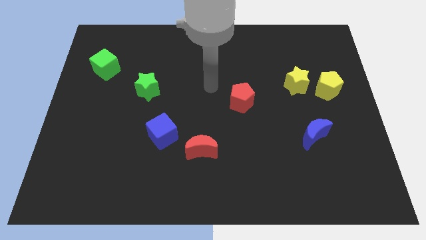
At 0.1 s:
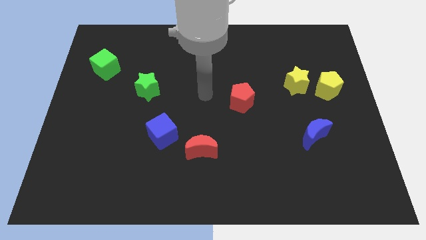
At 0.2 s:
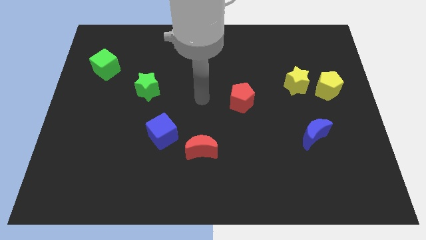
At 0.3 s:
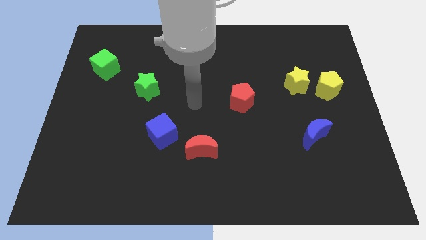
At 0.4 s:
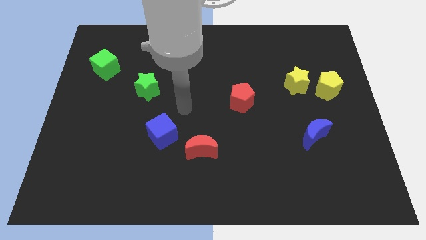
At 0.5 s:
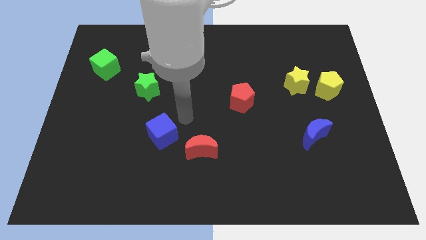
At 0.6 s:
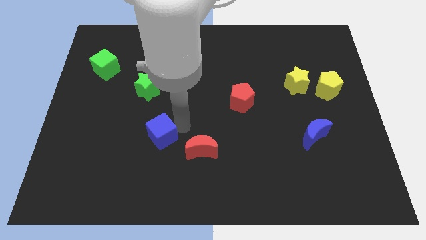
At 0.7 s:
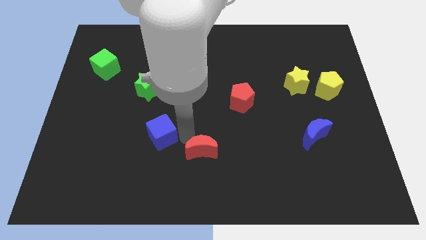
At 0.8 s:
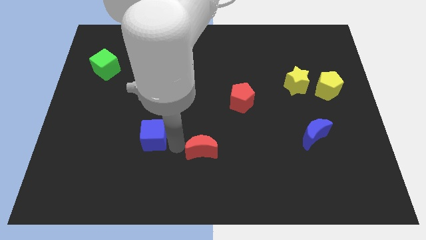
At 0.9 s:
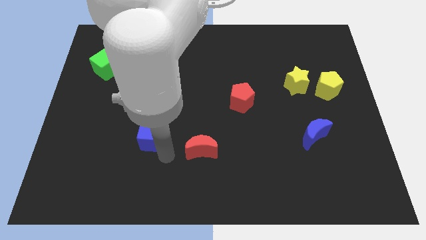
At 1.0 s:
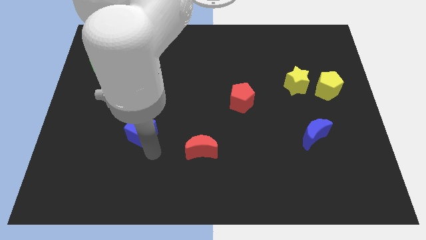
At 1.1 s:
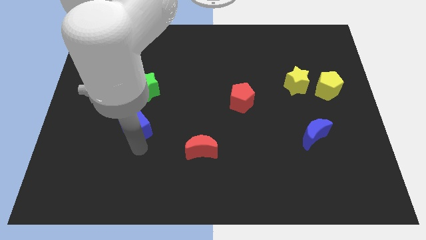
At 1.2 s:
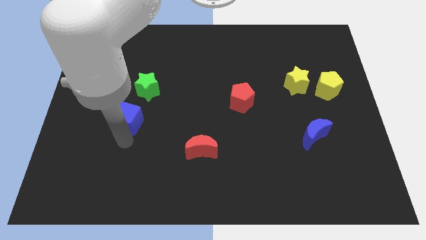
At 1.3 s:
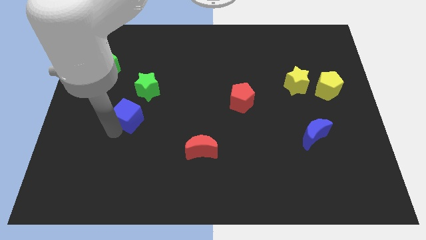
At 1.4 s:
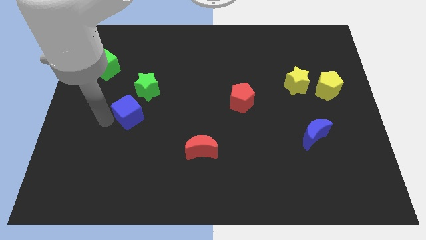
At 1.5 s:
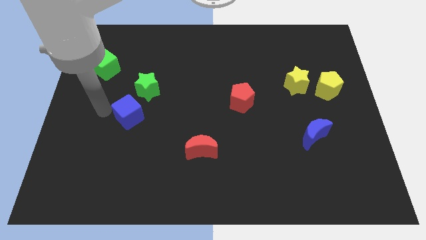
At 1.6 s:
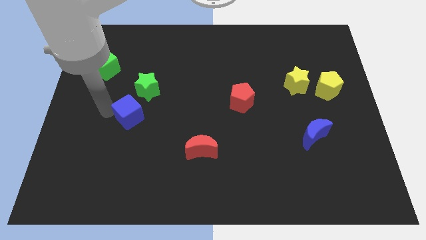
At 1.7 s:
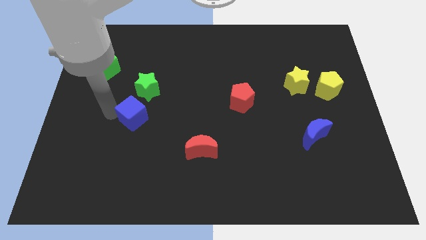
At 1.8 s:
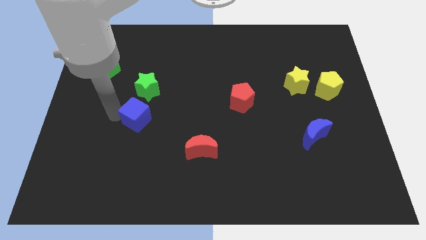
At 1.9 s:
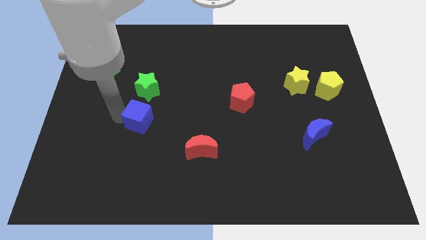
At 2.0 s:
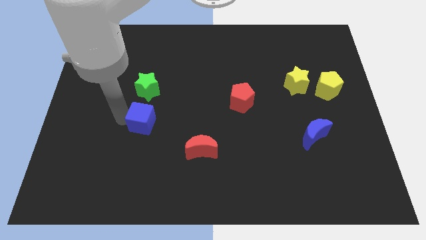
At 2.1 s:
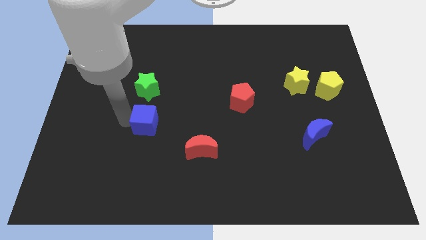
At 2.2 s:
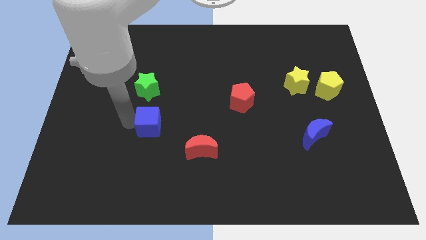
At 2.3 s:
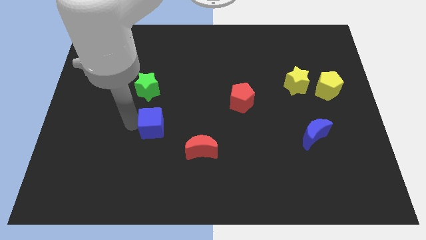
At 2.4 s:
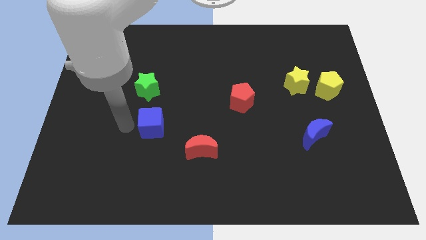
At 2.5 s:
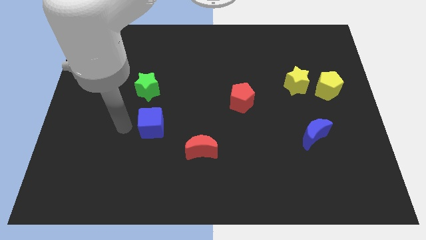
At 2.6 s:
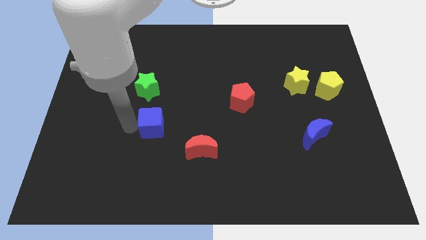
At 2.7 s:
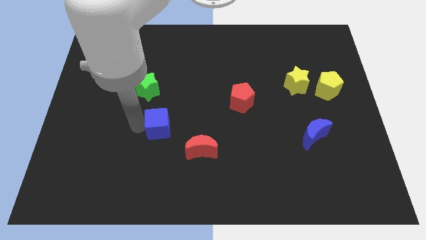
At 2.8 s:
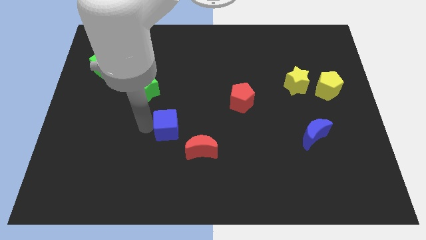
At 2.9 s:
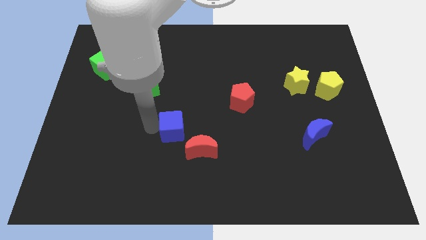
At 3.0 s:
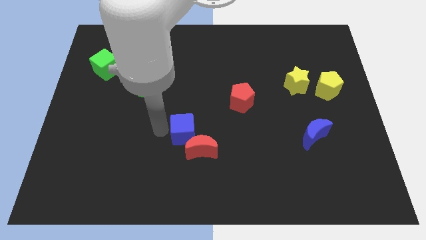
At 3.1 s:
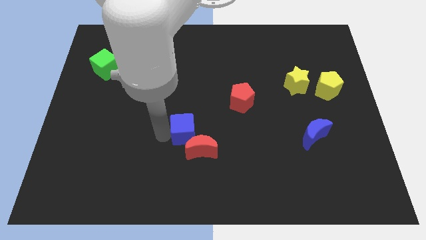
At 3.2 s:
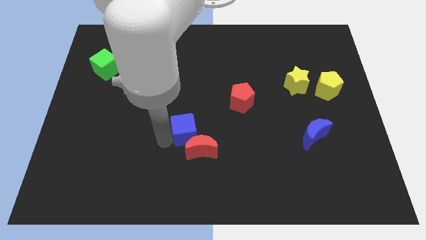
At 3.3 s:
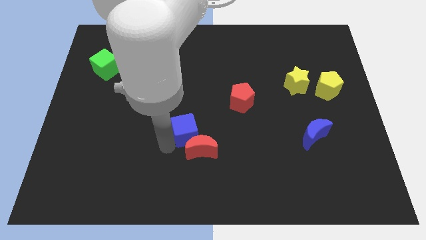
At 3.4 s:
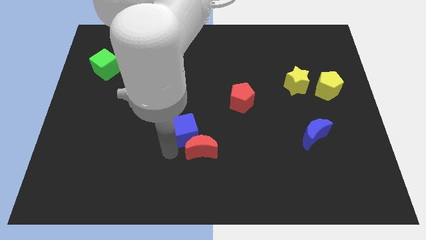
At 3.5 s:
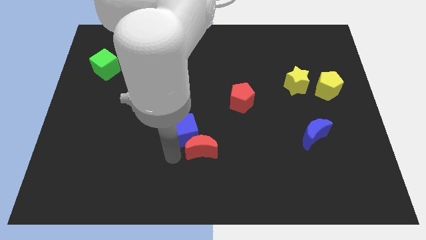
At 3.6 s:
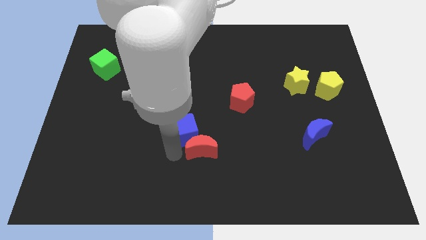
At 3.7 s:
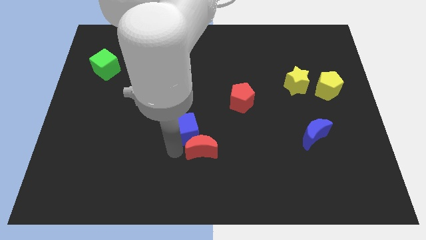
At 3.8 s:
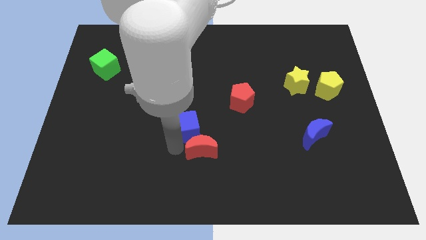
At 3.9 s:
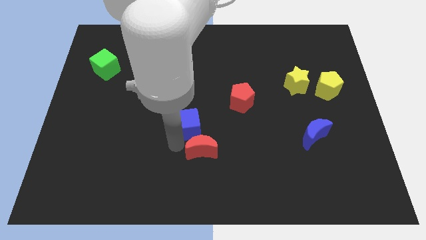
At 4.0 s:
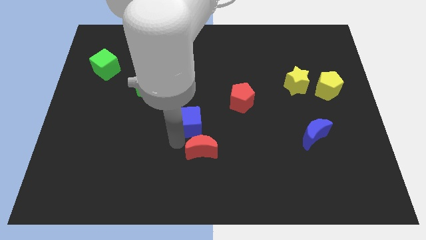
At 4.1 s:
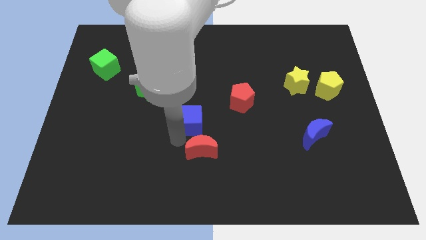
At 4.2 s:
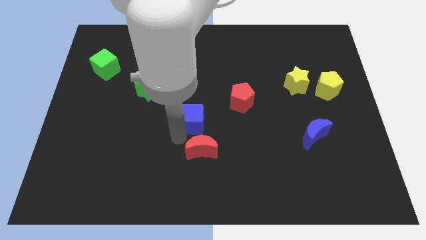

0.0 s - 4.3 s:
push the blue cube diagonally up and to the right somewhat

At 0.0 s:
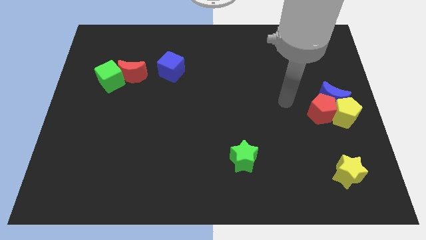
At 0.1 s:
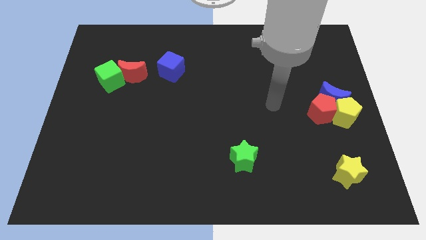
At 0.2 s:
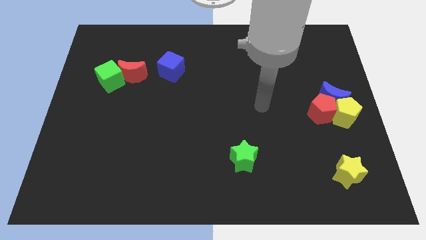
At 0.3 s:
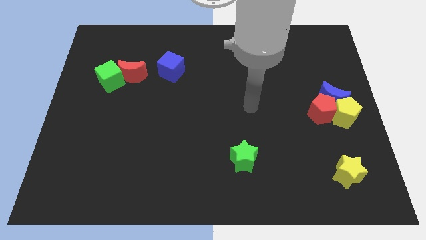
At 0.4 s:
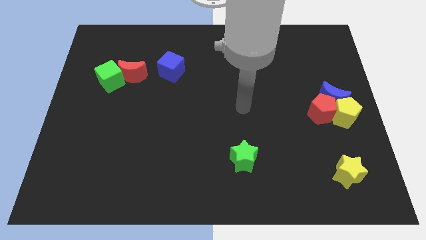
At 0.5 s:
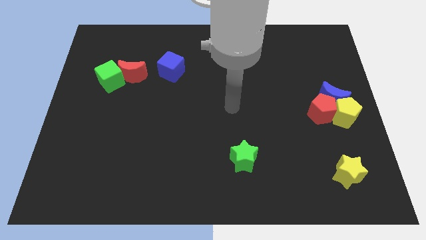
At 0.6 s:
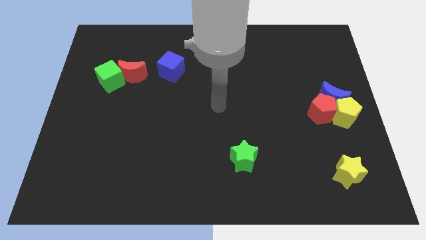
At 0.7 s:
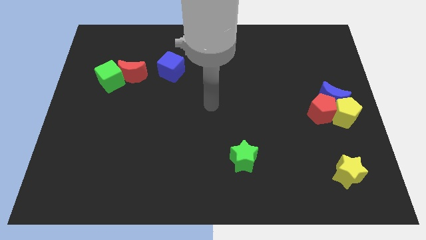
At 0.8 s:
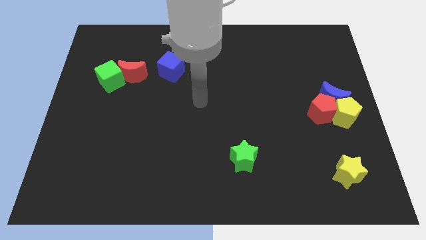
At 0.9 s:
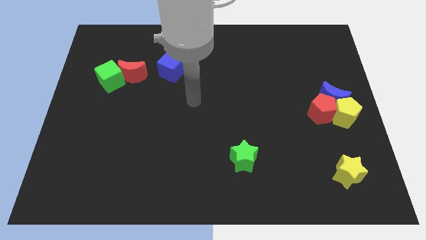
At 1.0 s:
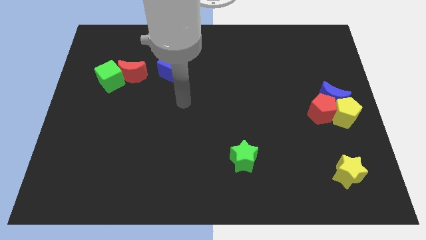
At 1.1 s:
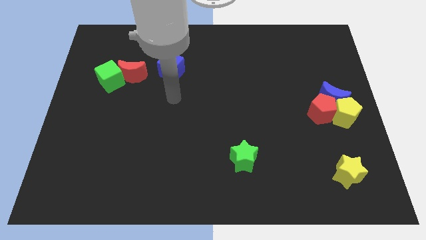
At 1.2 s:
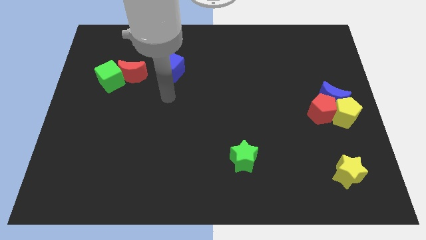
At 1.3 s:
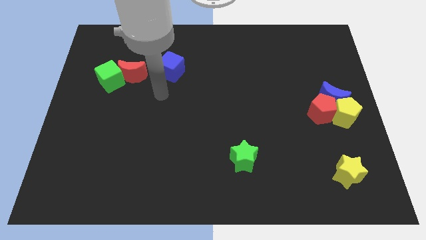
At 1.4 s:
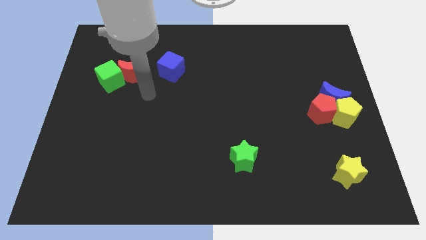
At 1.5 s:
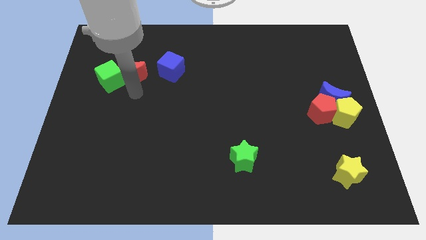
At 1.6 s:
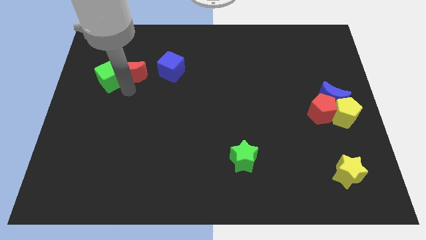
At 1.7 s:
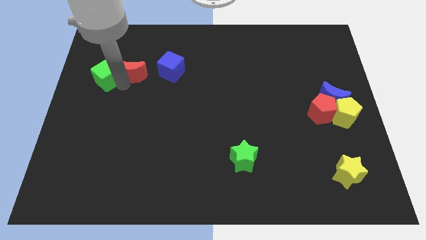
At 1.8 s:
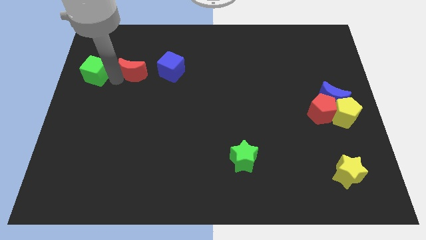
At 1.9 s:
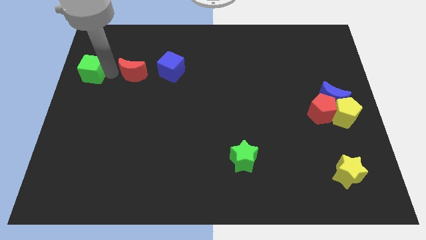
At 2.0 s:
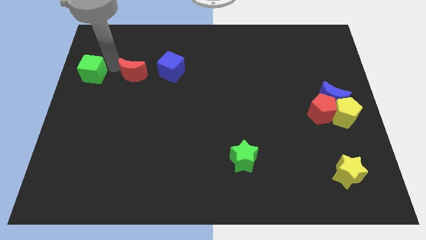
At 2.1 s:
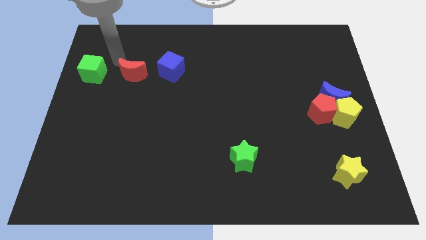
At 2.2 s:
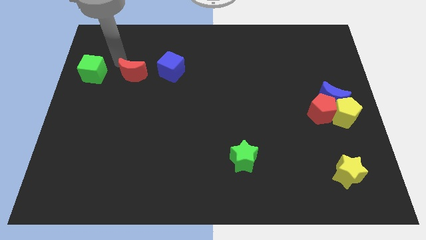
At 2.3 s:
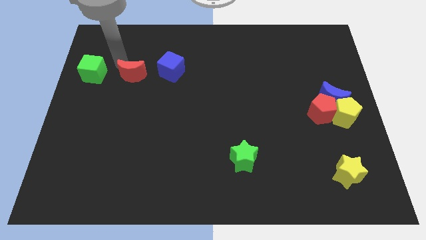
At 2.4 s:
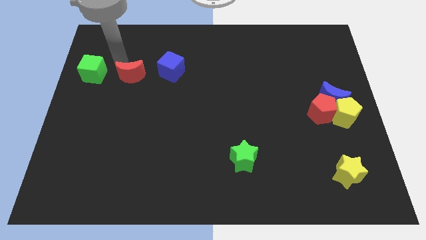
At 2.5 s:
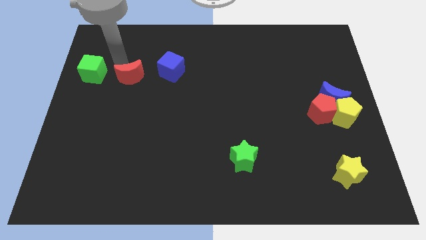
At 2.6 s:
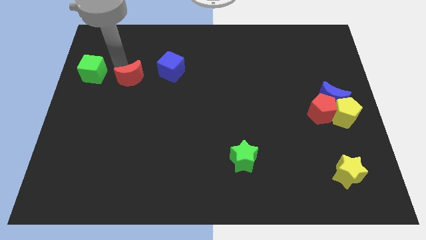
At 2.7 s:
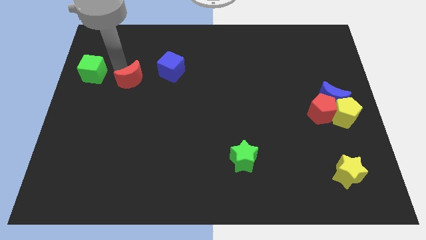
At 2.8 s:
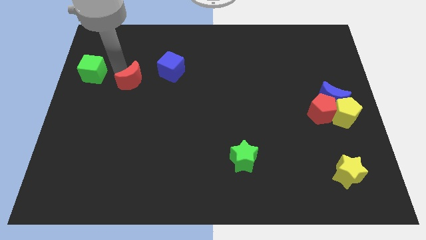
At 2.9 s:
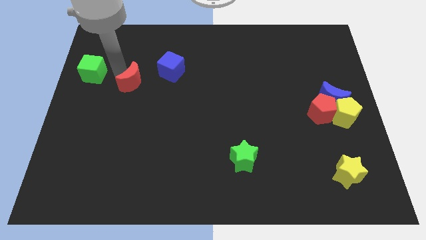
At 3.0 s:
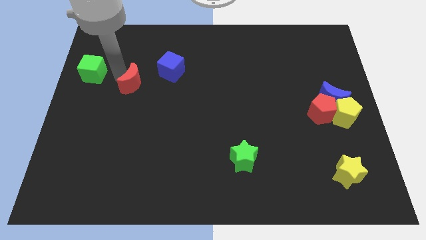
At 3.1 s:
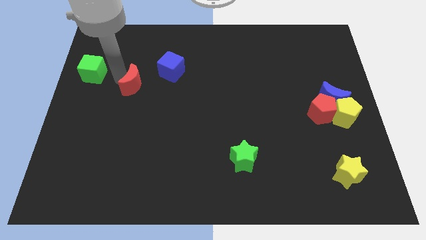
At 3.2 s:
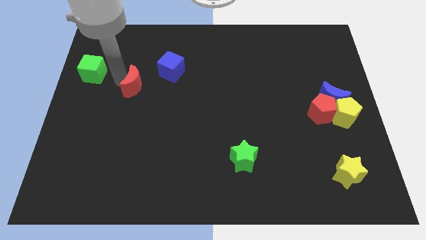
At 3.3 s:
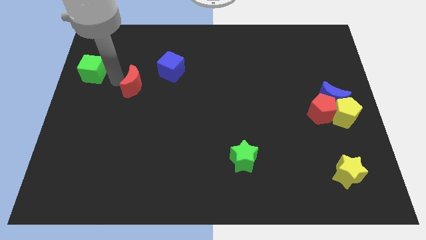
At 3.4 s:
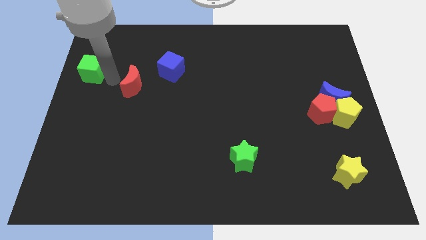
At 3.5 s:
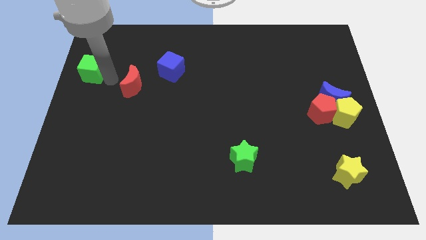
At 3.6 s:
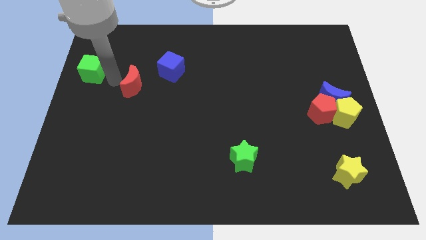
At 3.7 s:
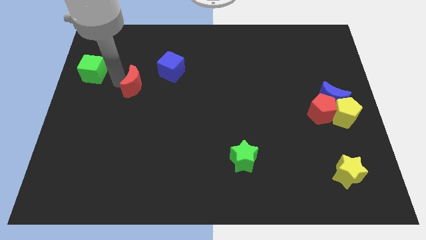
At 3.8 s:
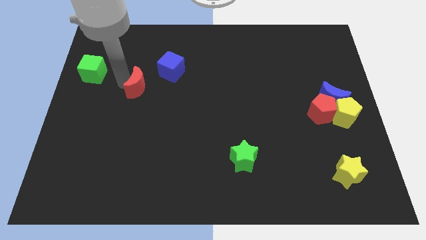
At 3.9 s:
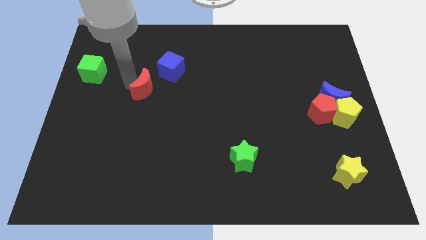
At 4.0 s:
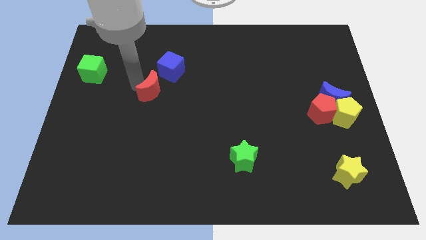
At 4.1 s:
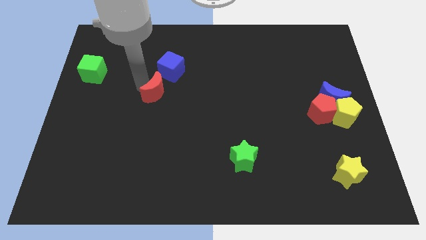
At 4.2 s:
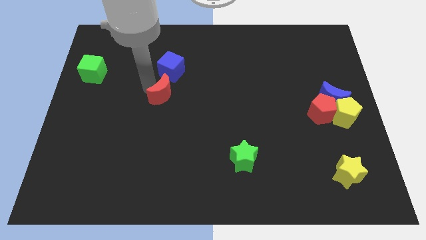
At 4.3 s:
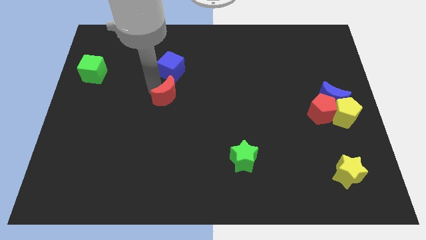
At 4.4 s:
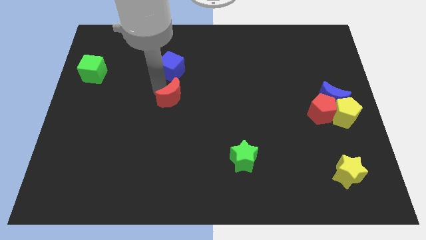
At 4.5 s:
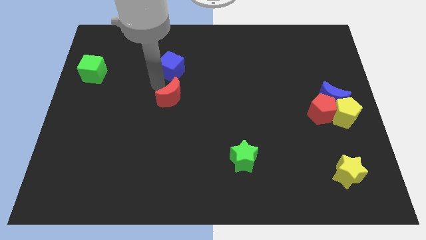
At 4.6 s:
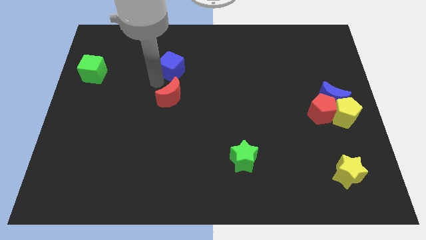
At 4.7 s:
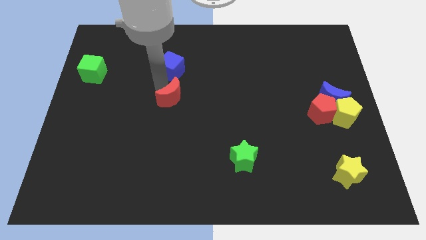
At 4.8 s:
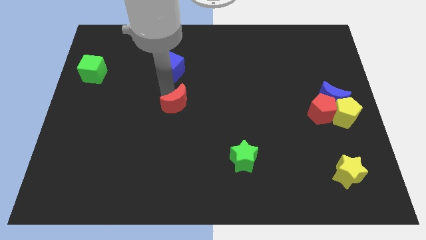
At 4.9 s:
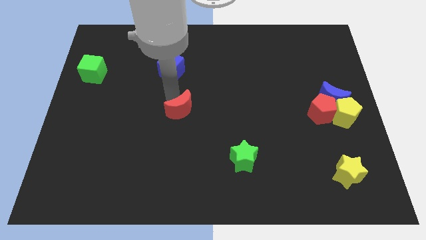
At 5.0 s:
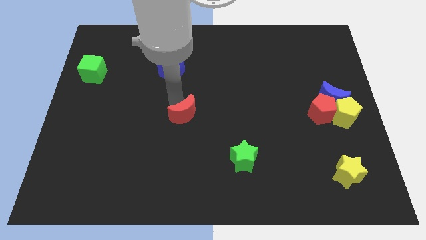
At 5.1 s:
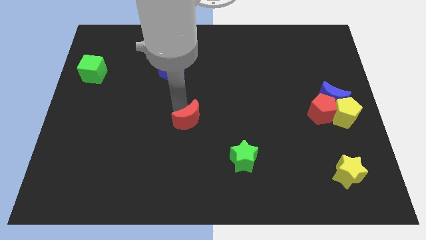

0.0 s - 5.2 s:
slide the red moon down and then to the right
